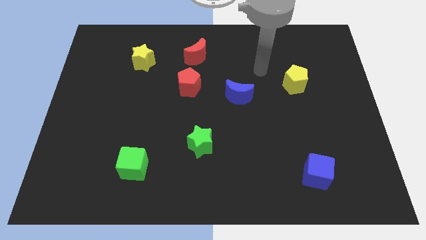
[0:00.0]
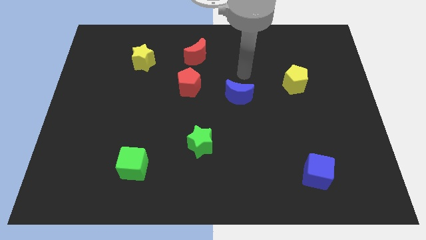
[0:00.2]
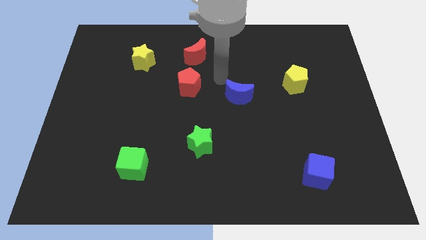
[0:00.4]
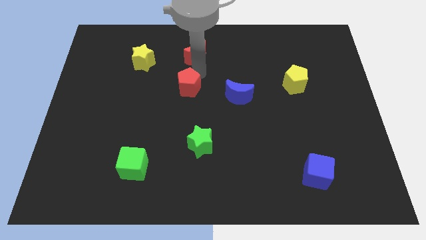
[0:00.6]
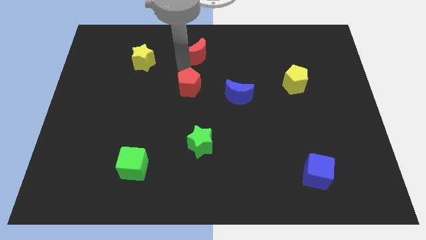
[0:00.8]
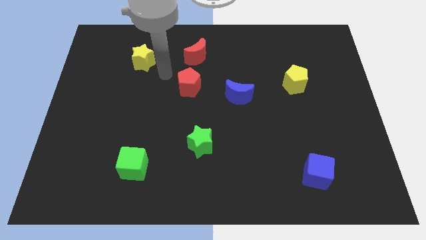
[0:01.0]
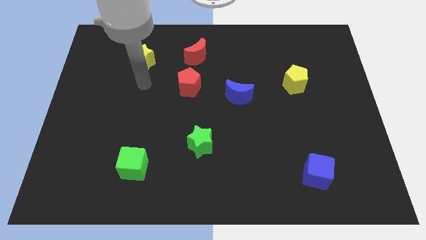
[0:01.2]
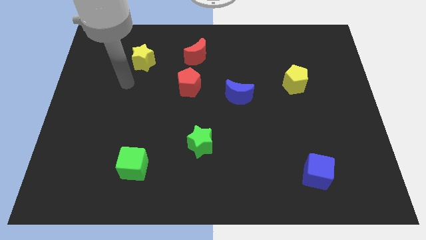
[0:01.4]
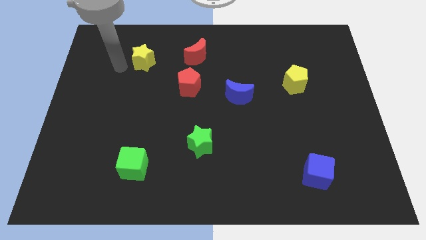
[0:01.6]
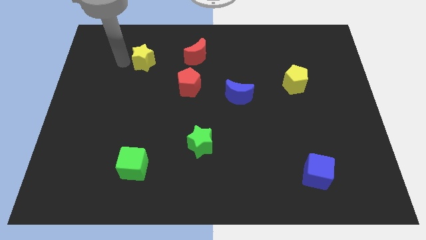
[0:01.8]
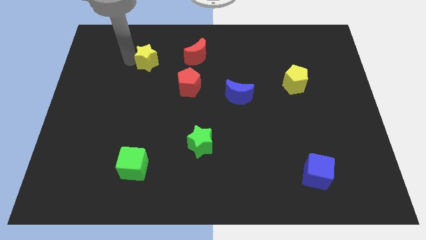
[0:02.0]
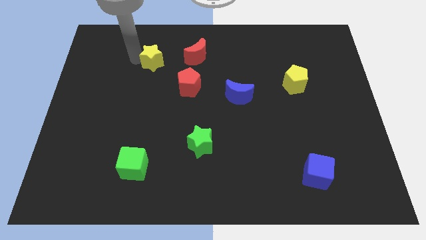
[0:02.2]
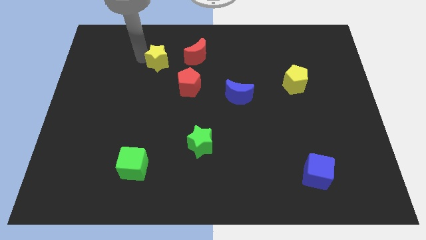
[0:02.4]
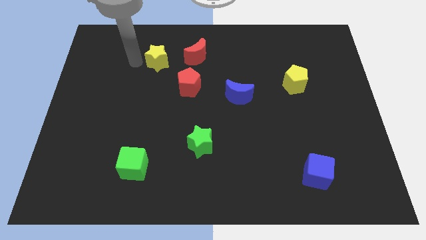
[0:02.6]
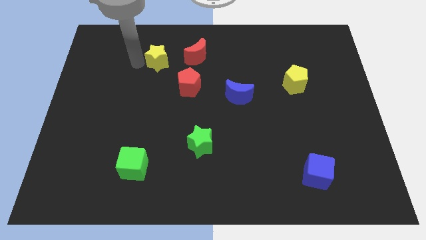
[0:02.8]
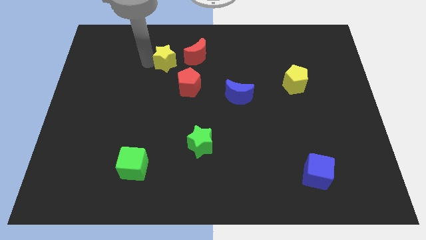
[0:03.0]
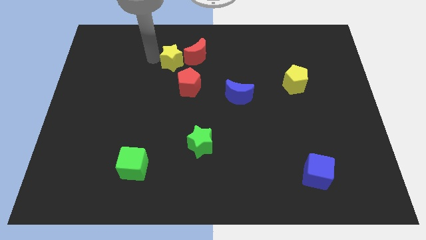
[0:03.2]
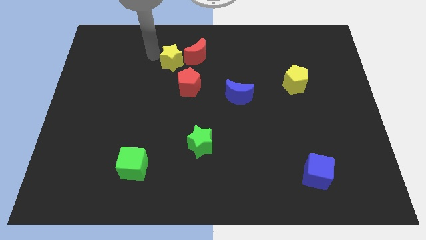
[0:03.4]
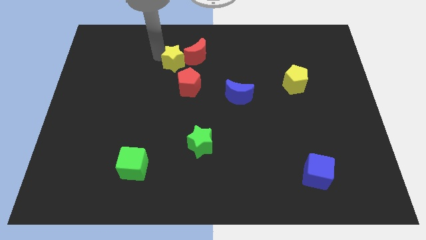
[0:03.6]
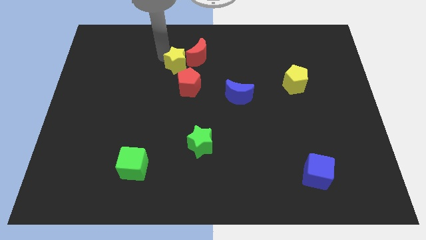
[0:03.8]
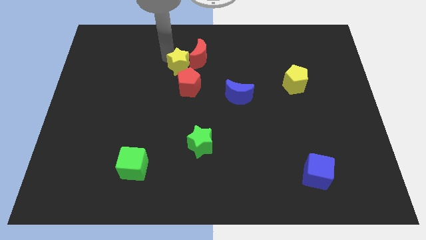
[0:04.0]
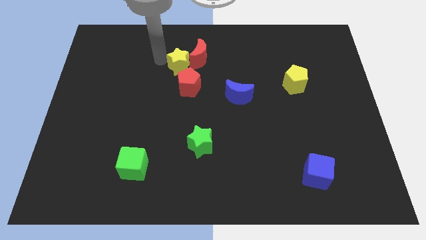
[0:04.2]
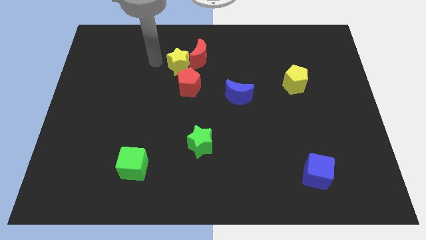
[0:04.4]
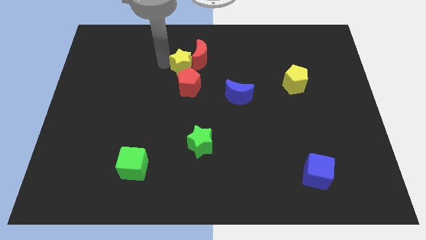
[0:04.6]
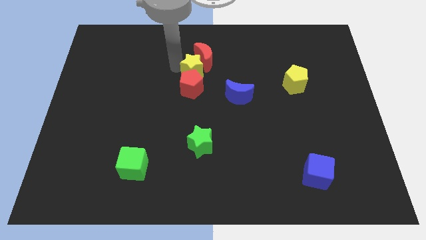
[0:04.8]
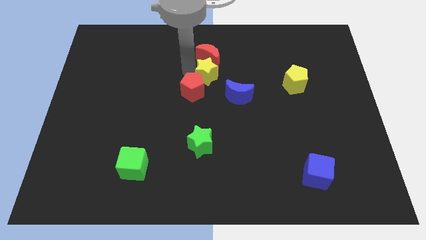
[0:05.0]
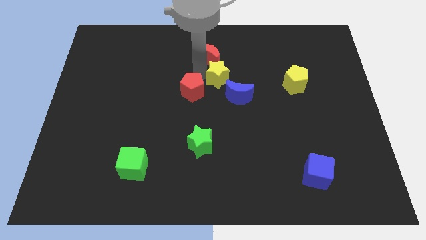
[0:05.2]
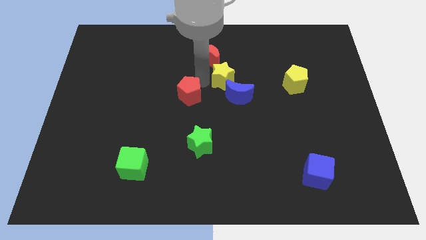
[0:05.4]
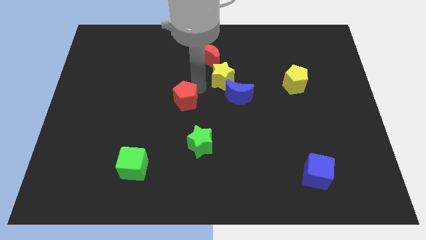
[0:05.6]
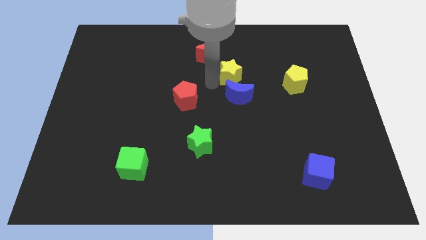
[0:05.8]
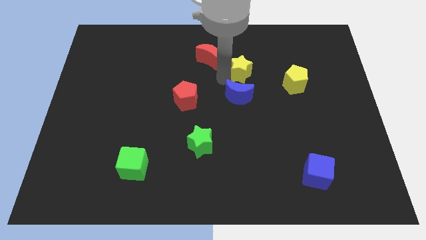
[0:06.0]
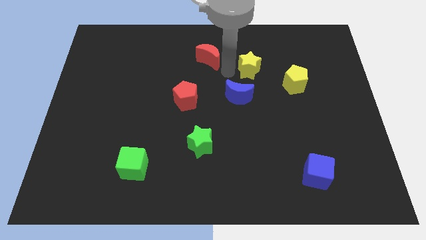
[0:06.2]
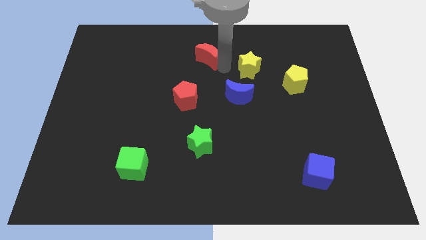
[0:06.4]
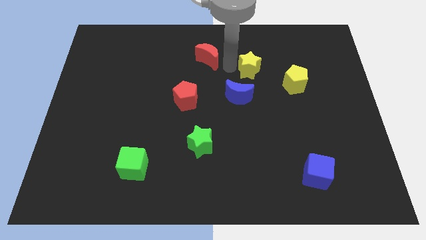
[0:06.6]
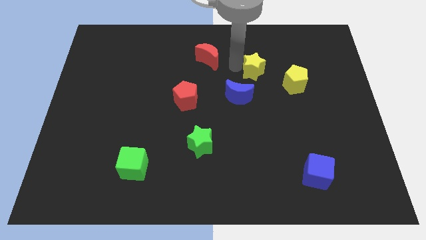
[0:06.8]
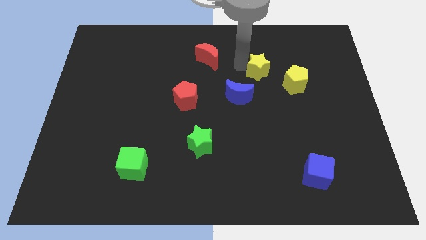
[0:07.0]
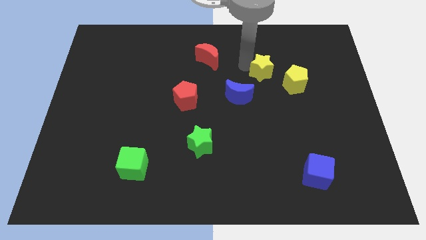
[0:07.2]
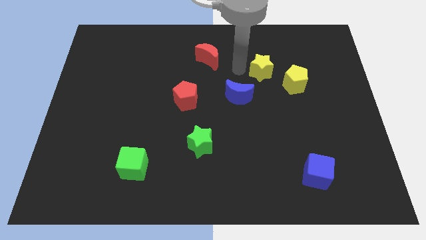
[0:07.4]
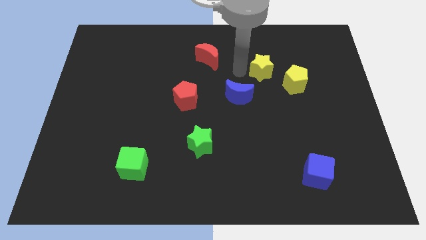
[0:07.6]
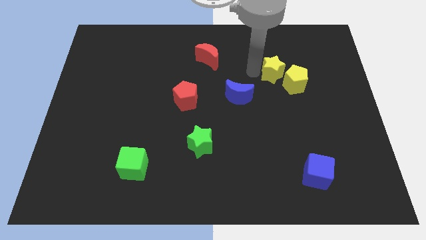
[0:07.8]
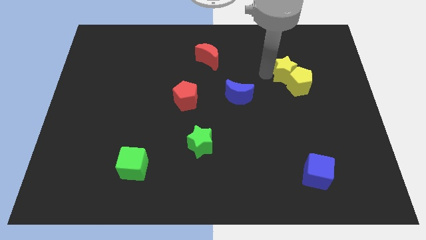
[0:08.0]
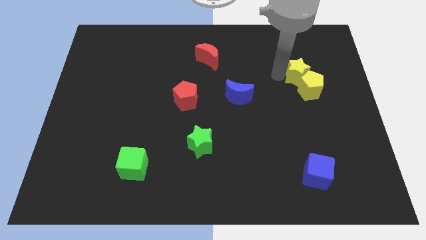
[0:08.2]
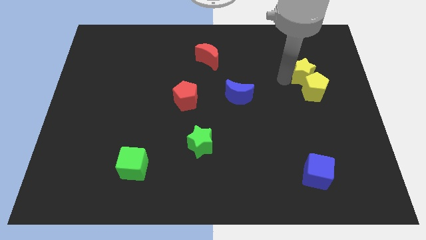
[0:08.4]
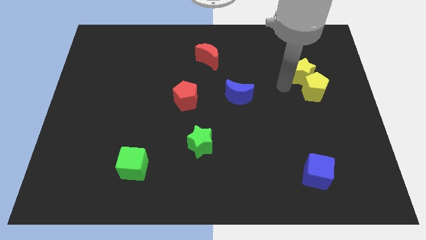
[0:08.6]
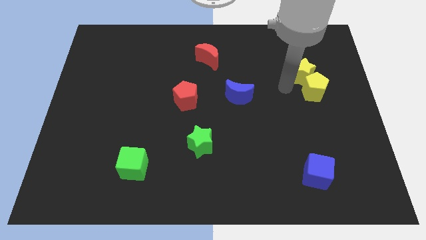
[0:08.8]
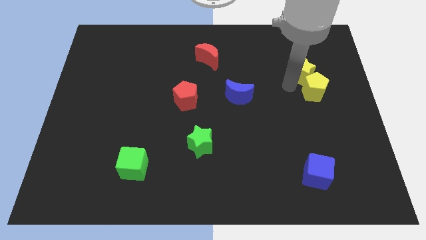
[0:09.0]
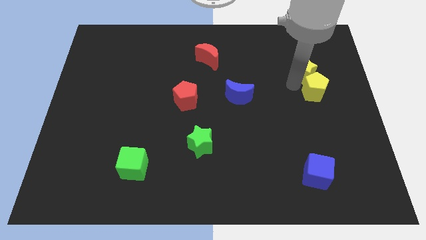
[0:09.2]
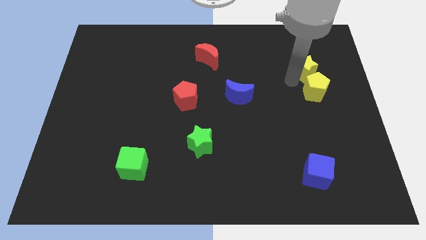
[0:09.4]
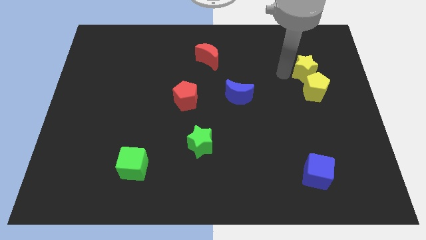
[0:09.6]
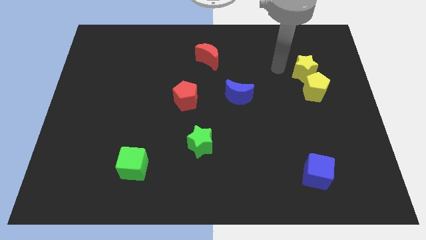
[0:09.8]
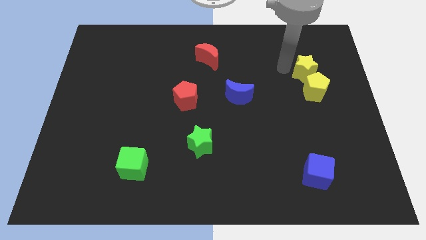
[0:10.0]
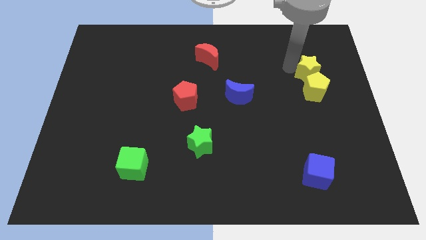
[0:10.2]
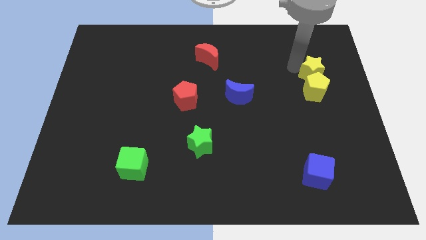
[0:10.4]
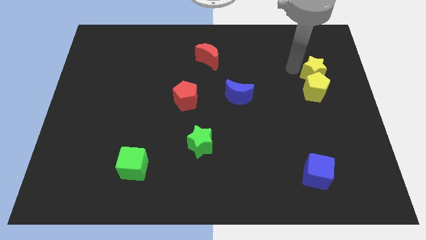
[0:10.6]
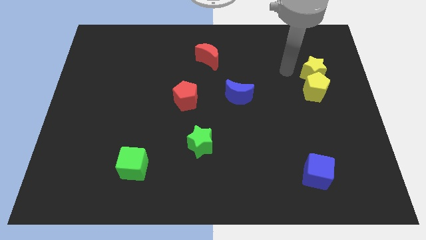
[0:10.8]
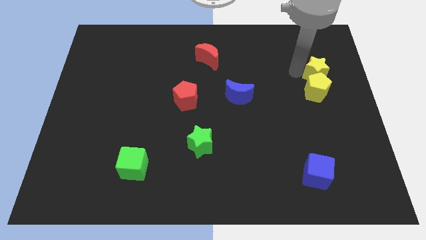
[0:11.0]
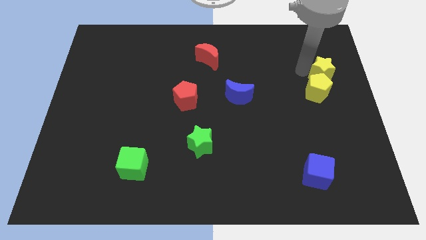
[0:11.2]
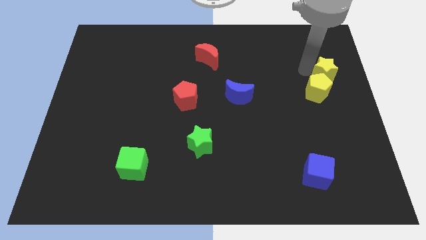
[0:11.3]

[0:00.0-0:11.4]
slide the yellow star to the right side of the board

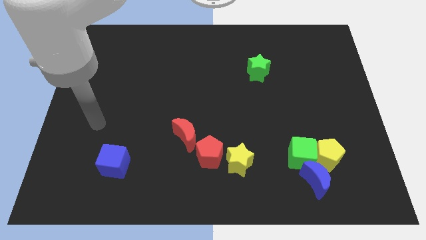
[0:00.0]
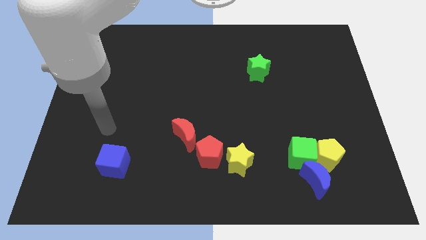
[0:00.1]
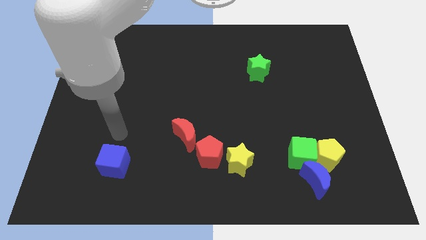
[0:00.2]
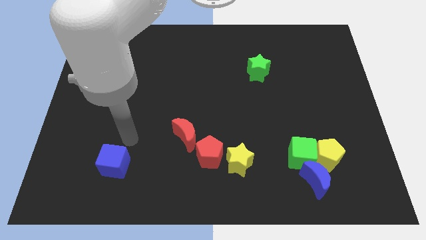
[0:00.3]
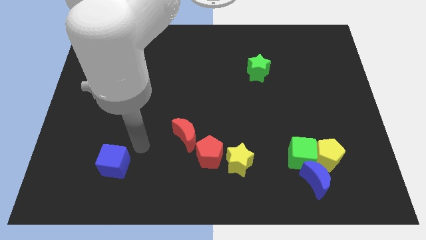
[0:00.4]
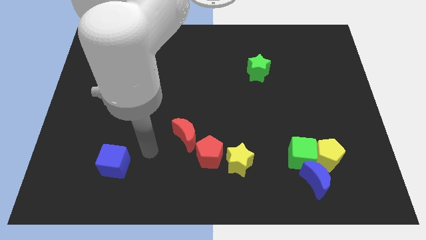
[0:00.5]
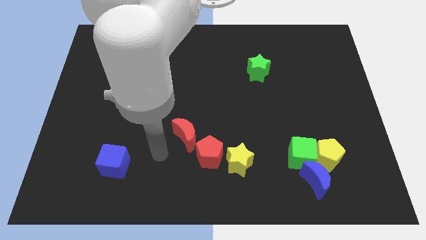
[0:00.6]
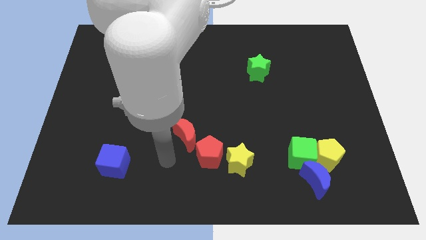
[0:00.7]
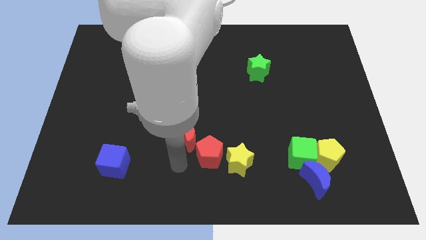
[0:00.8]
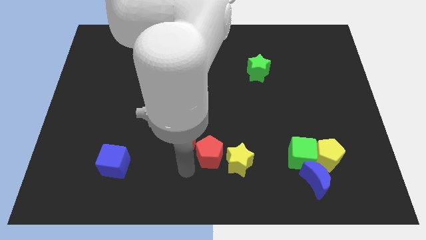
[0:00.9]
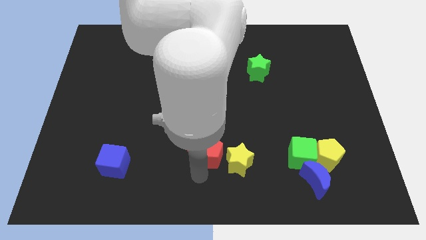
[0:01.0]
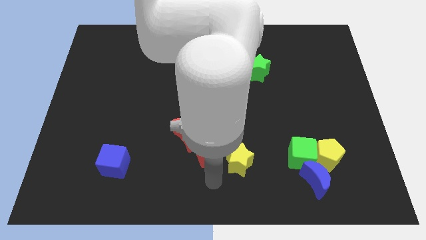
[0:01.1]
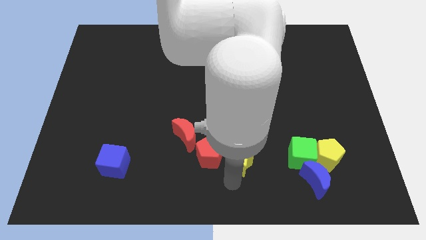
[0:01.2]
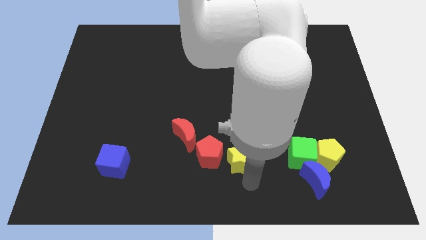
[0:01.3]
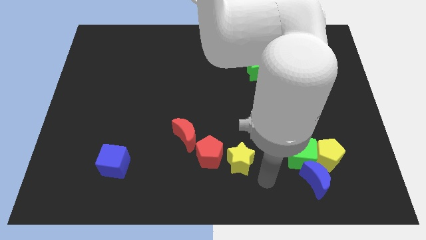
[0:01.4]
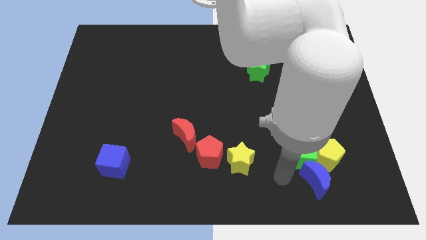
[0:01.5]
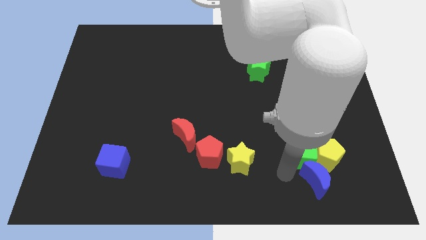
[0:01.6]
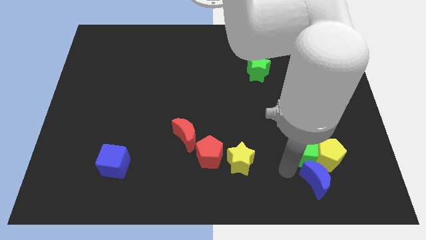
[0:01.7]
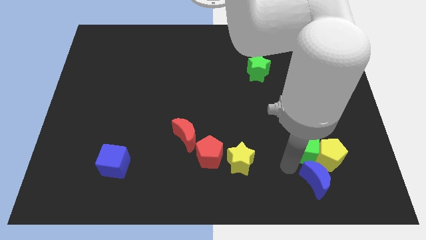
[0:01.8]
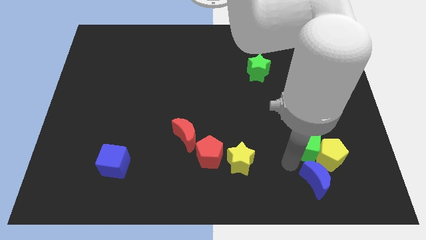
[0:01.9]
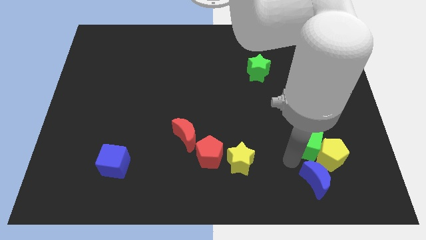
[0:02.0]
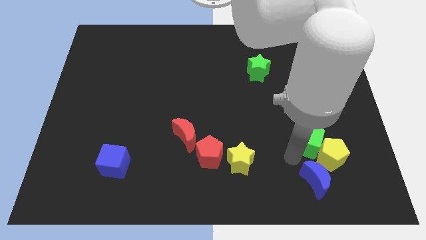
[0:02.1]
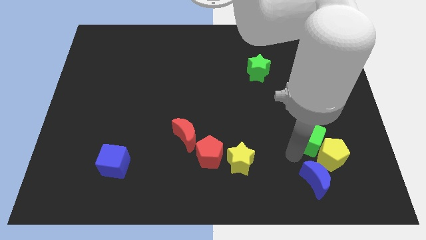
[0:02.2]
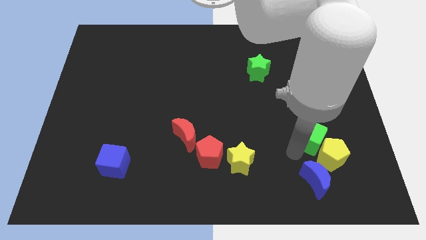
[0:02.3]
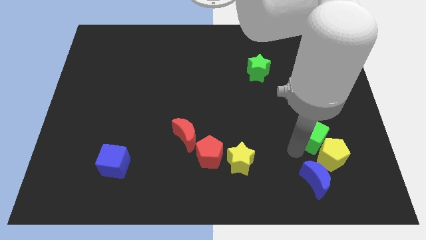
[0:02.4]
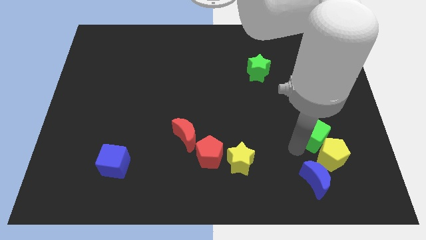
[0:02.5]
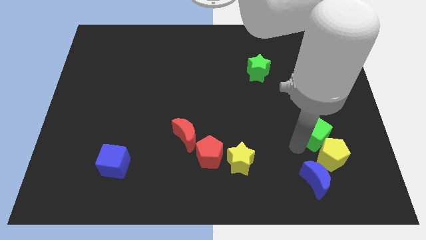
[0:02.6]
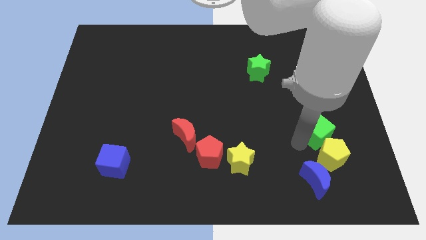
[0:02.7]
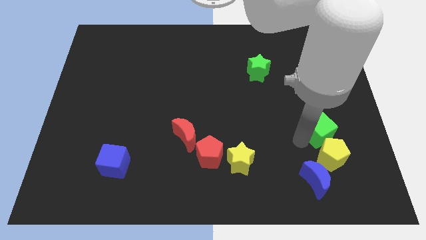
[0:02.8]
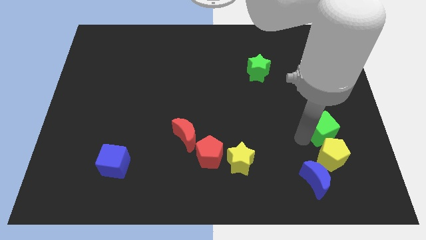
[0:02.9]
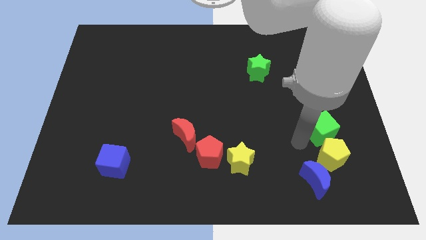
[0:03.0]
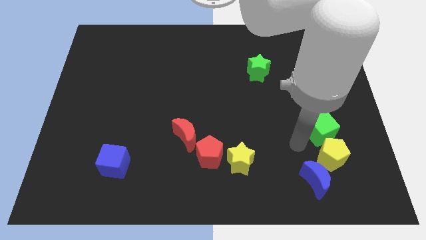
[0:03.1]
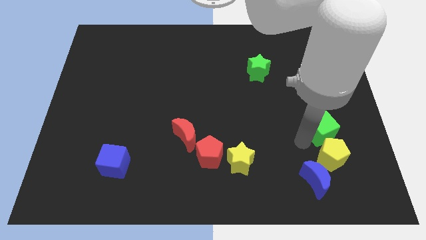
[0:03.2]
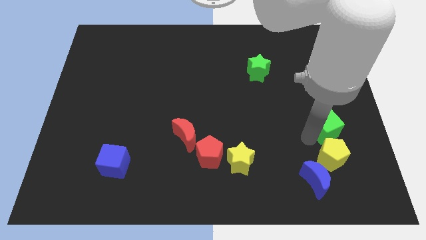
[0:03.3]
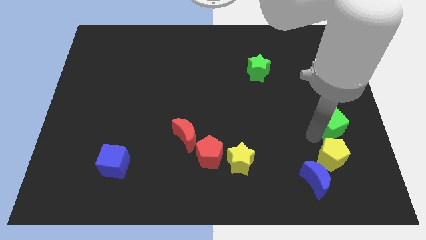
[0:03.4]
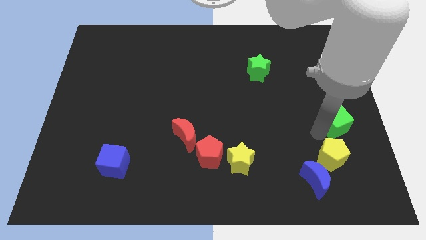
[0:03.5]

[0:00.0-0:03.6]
put the green cube to the right side
